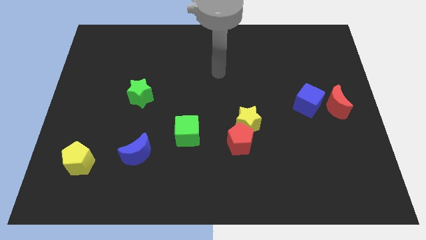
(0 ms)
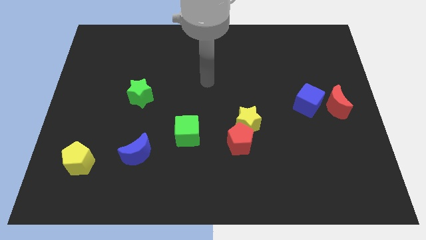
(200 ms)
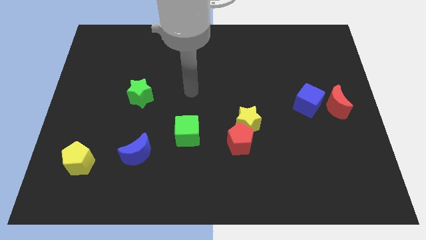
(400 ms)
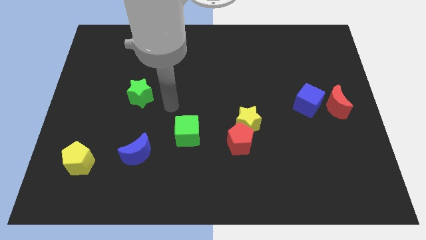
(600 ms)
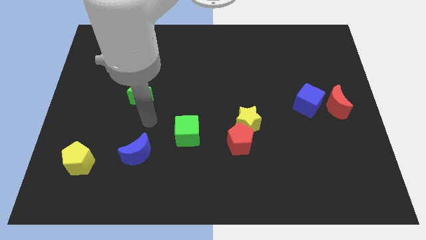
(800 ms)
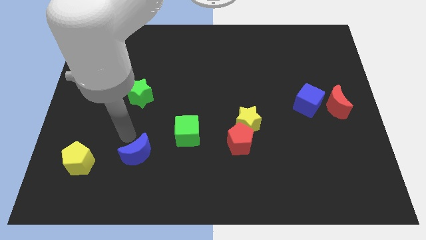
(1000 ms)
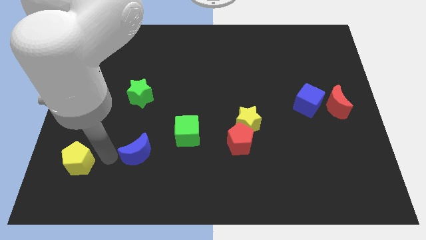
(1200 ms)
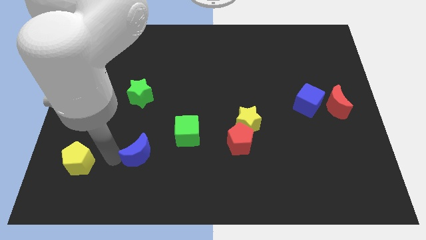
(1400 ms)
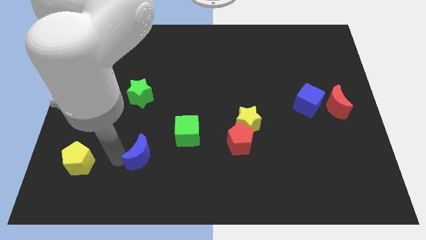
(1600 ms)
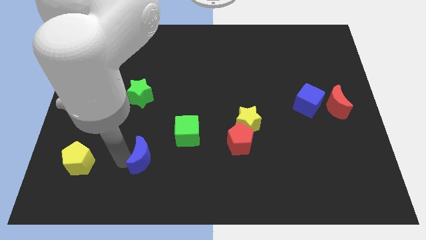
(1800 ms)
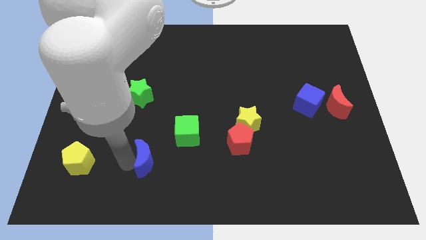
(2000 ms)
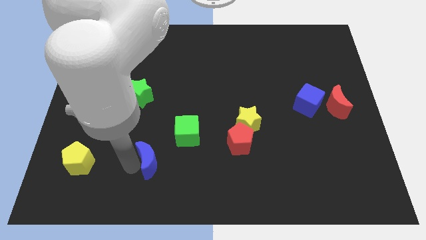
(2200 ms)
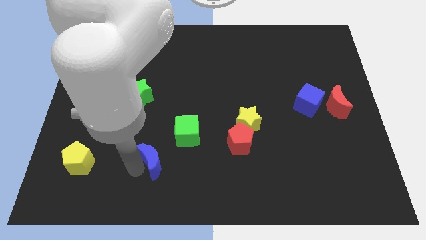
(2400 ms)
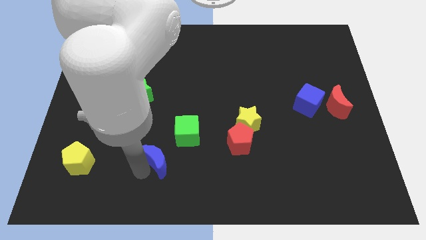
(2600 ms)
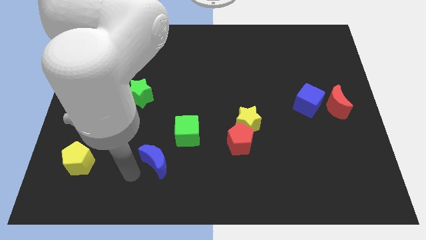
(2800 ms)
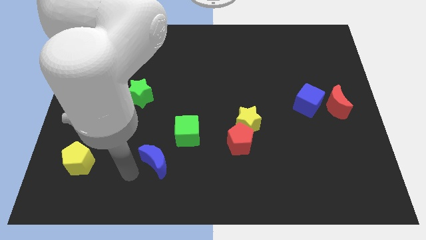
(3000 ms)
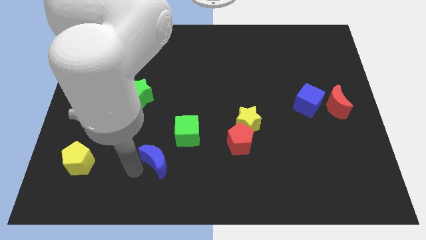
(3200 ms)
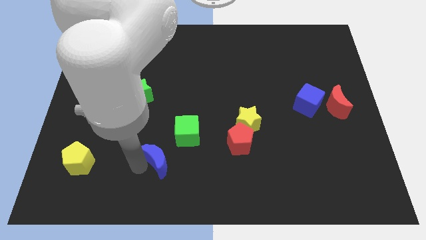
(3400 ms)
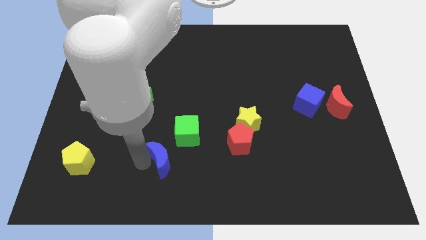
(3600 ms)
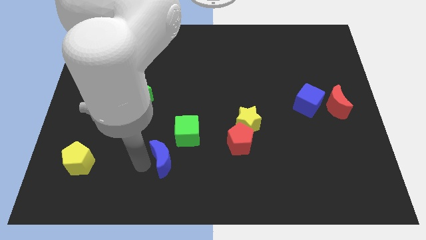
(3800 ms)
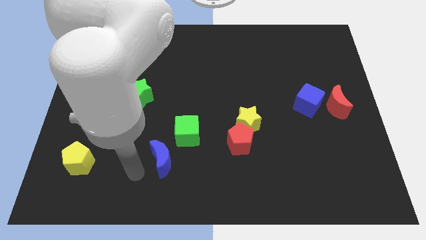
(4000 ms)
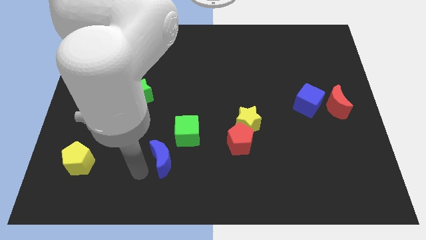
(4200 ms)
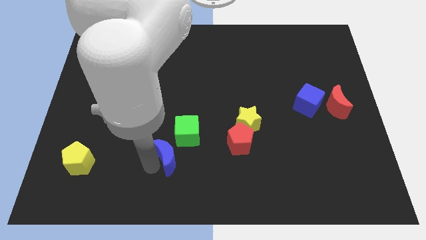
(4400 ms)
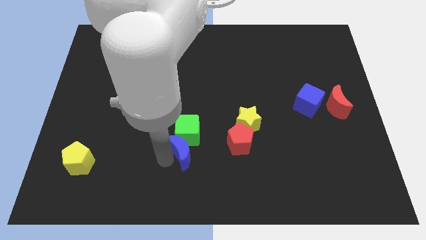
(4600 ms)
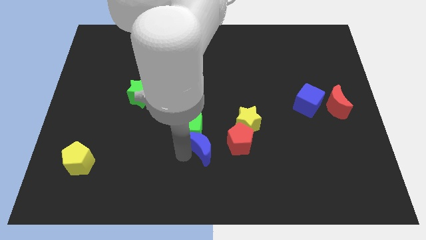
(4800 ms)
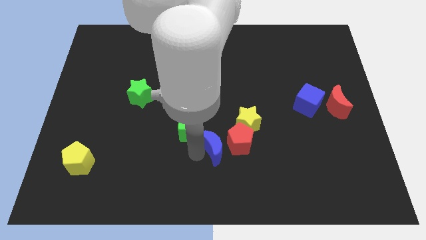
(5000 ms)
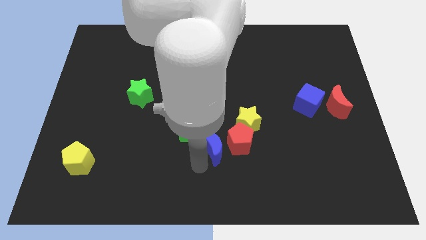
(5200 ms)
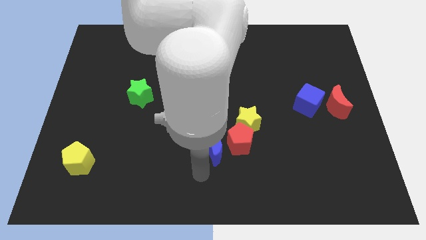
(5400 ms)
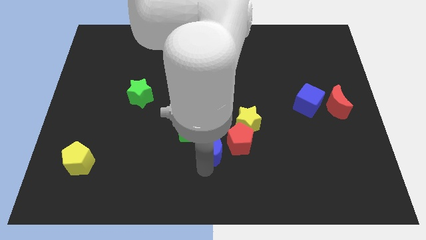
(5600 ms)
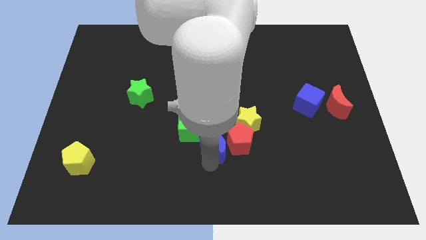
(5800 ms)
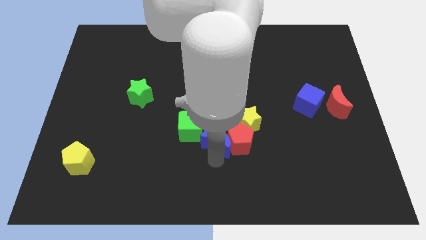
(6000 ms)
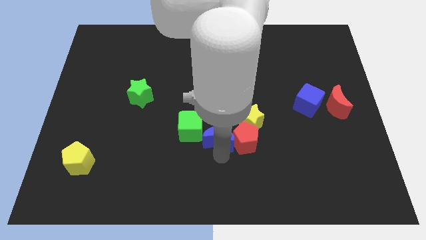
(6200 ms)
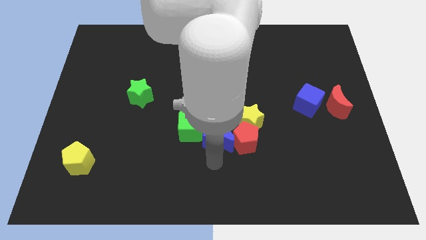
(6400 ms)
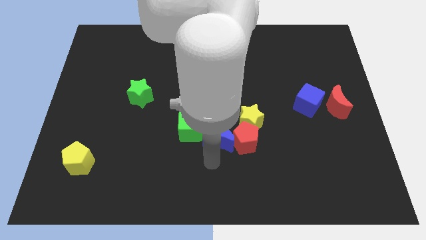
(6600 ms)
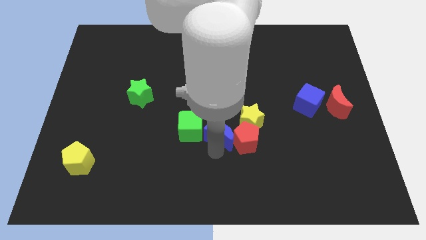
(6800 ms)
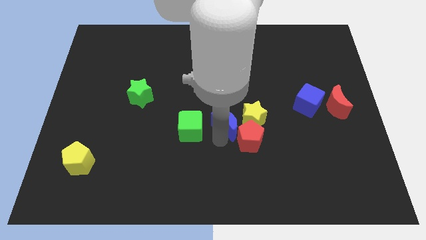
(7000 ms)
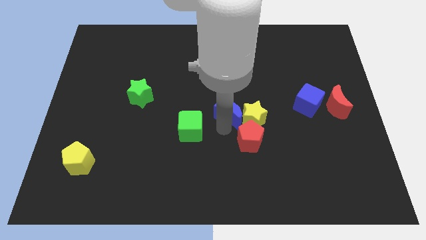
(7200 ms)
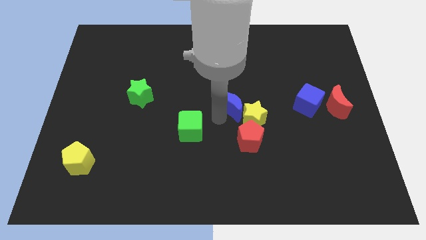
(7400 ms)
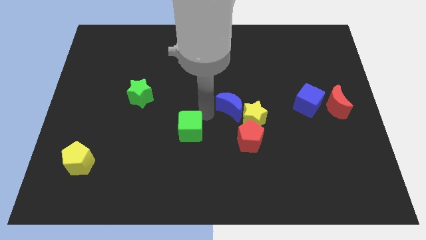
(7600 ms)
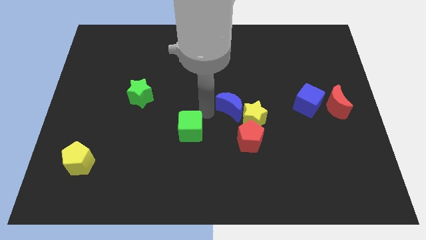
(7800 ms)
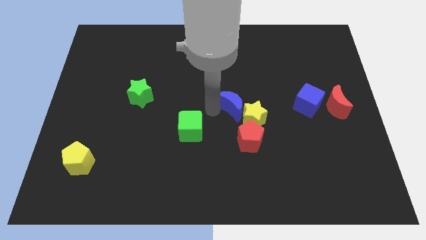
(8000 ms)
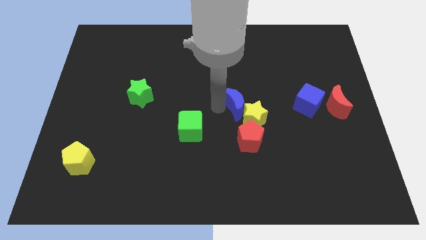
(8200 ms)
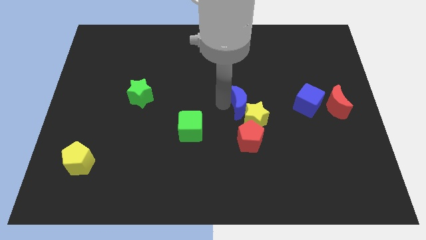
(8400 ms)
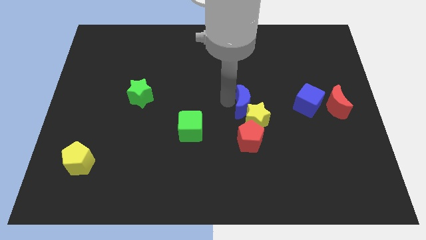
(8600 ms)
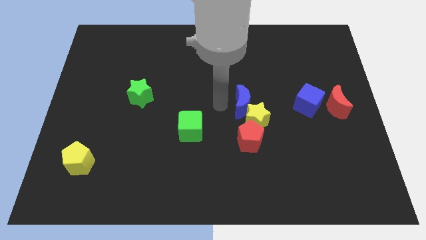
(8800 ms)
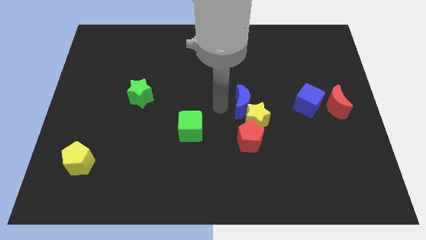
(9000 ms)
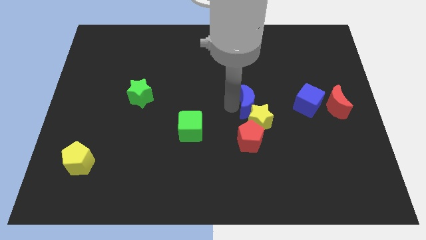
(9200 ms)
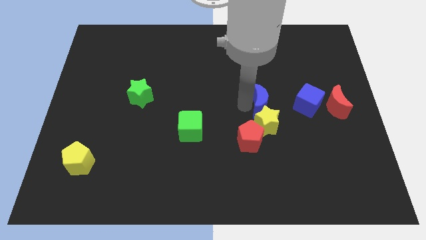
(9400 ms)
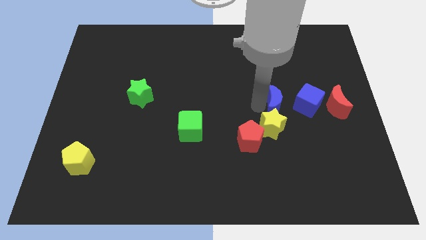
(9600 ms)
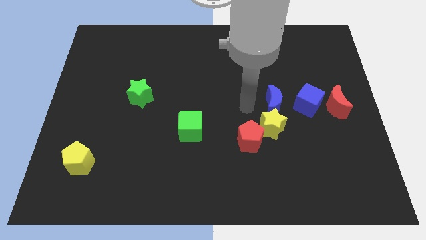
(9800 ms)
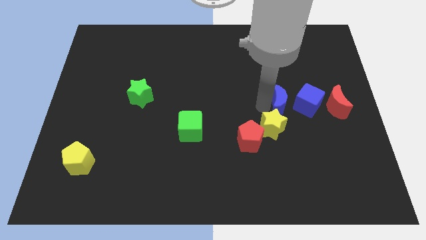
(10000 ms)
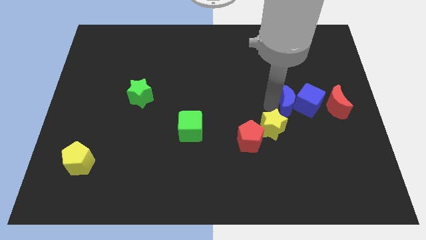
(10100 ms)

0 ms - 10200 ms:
move the blue moon next to the blue cube

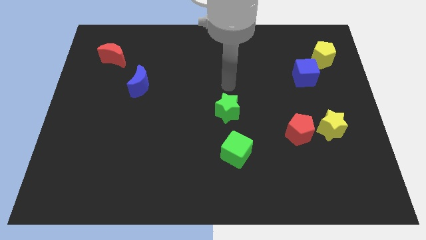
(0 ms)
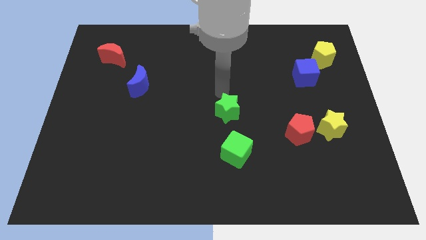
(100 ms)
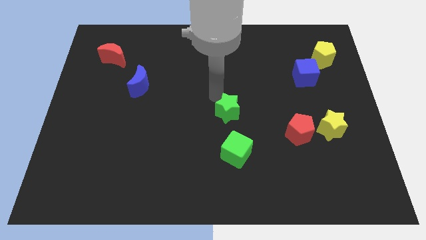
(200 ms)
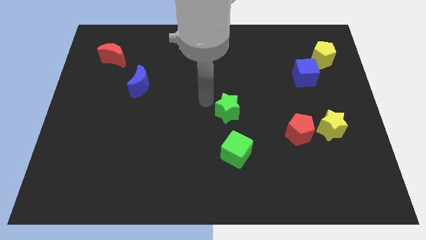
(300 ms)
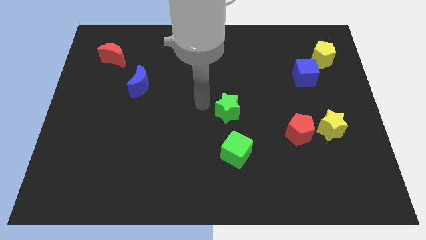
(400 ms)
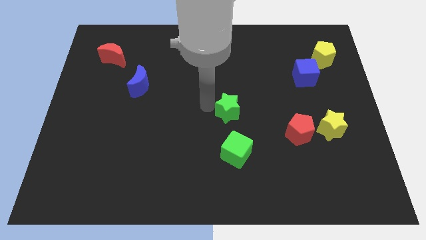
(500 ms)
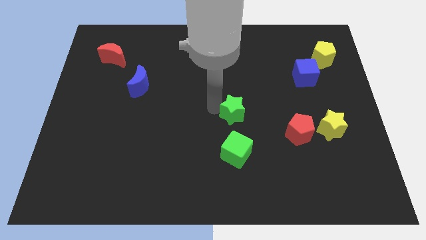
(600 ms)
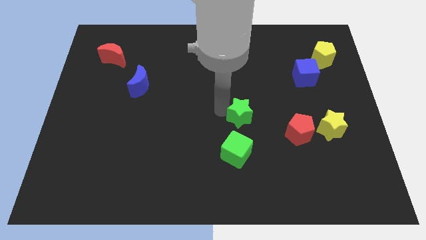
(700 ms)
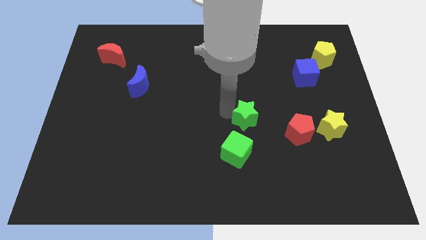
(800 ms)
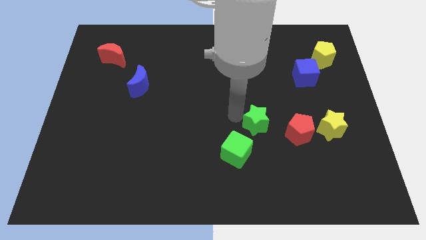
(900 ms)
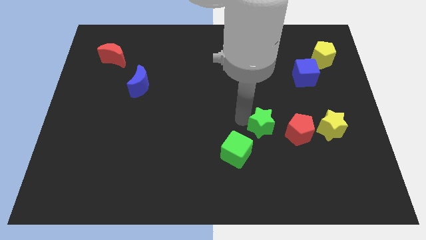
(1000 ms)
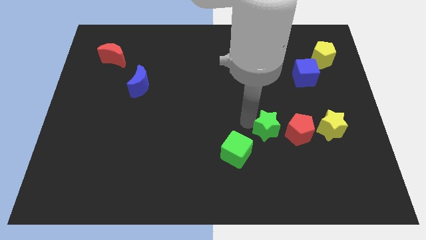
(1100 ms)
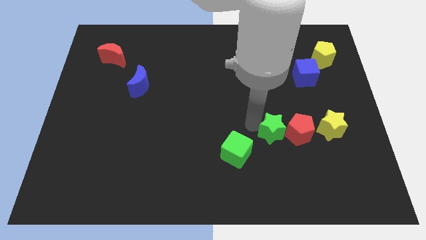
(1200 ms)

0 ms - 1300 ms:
put the green star next to the red pentagon
